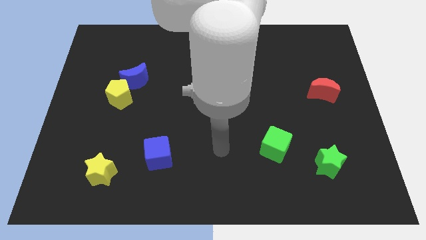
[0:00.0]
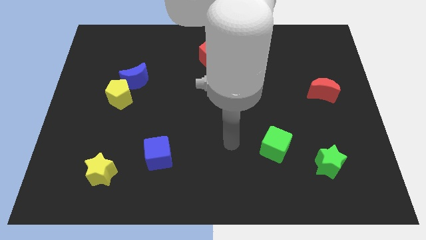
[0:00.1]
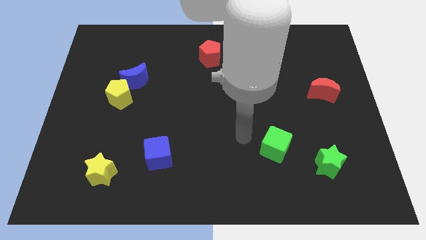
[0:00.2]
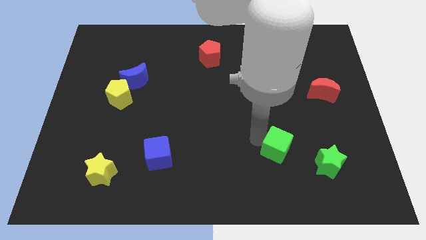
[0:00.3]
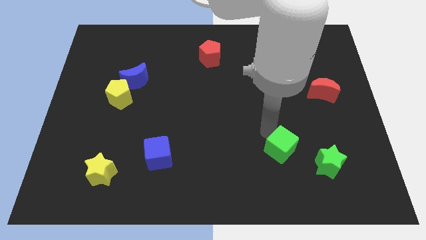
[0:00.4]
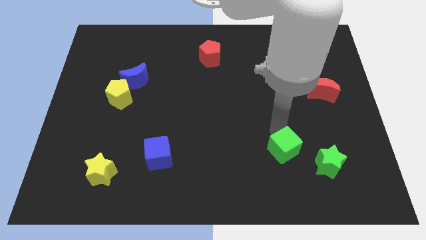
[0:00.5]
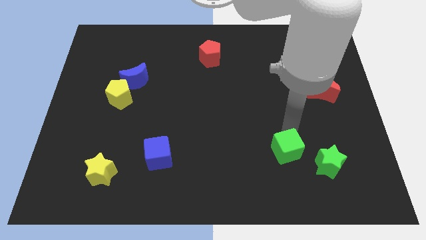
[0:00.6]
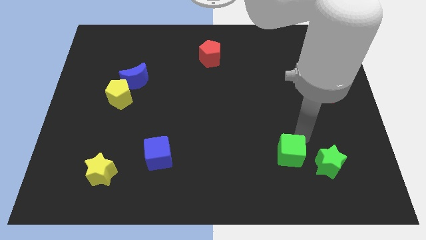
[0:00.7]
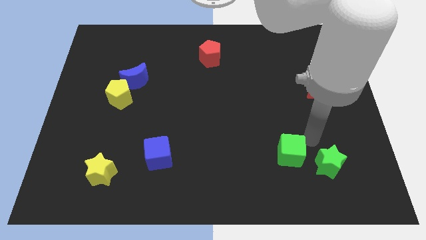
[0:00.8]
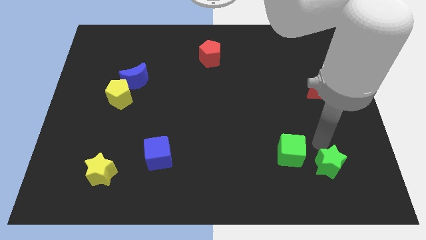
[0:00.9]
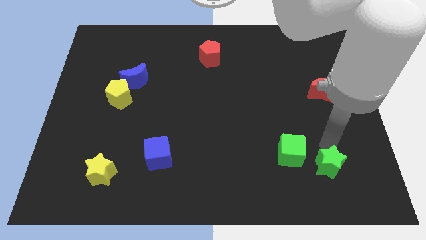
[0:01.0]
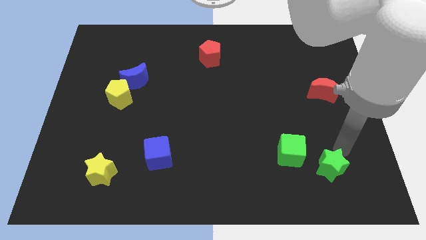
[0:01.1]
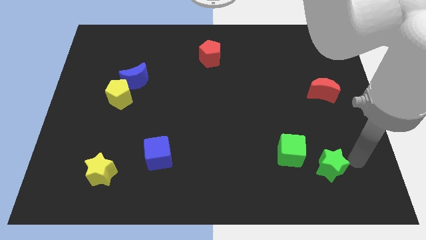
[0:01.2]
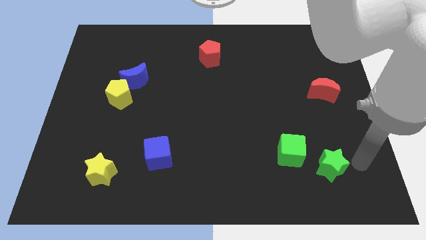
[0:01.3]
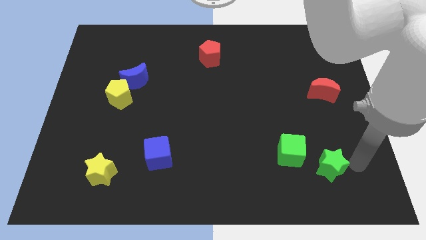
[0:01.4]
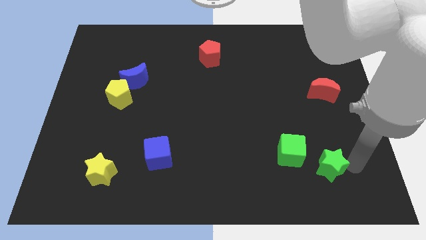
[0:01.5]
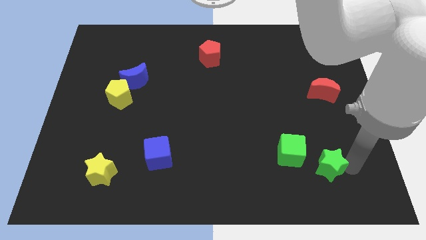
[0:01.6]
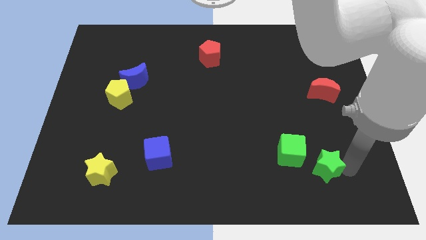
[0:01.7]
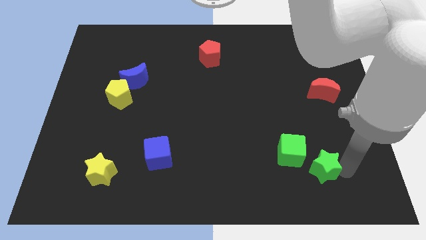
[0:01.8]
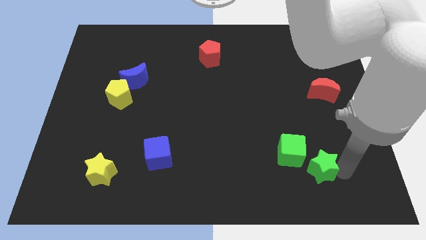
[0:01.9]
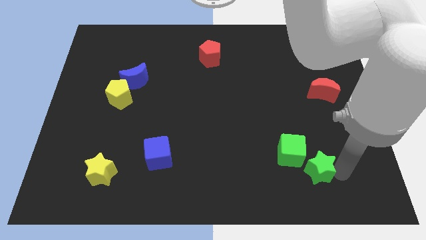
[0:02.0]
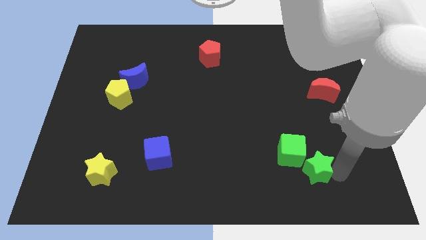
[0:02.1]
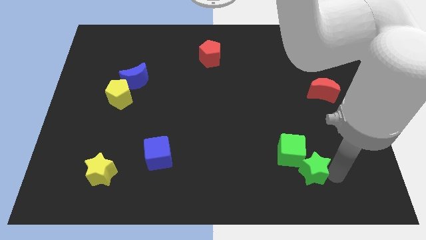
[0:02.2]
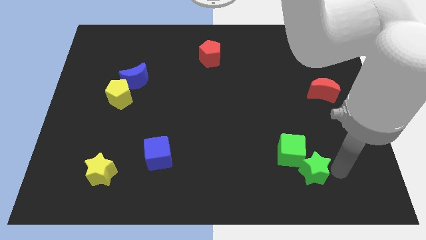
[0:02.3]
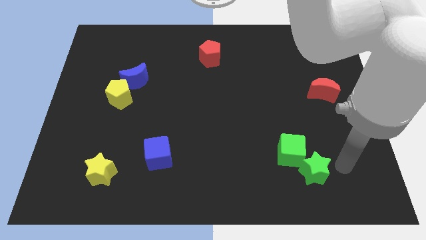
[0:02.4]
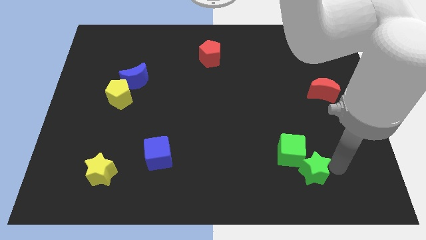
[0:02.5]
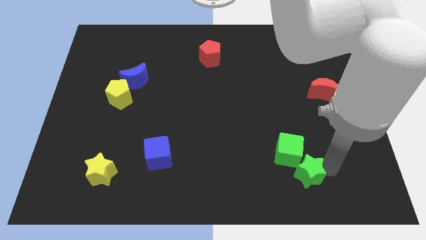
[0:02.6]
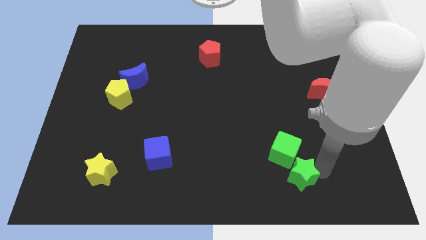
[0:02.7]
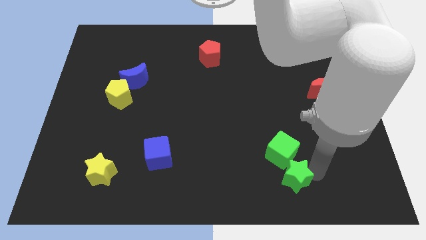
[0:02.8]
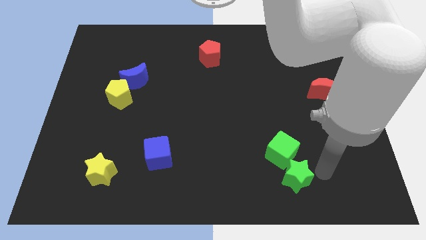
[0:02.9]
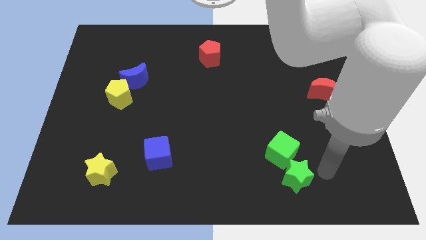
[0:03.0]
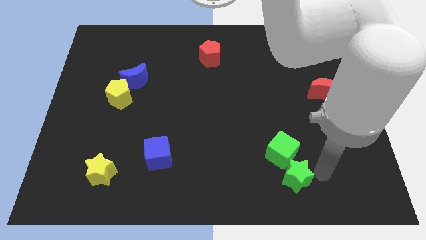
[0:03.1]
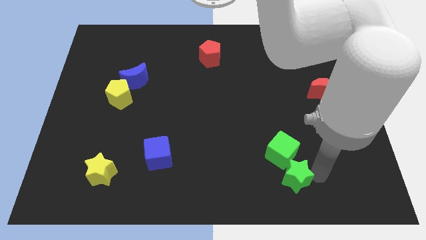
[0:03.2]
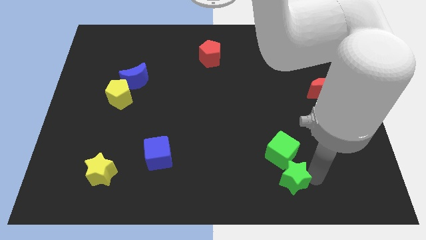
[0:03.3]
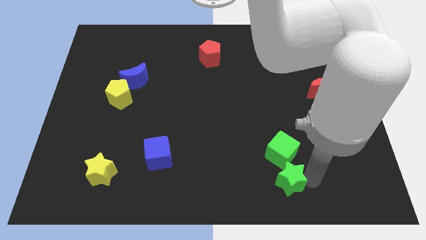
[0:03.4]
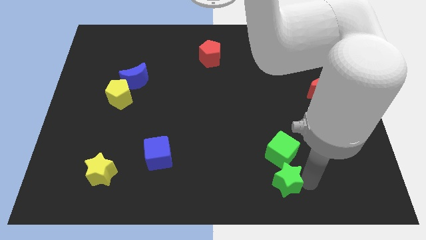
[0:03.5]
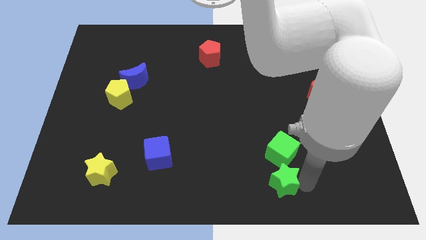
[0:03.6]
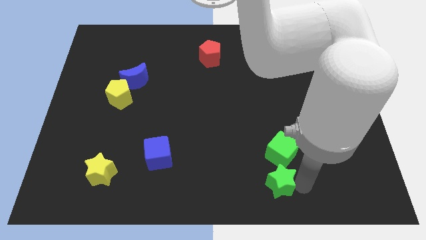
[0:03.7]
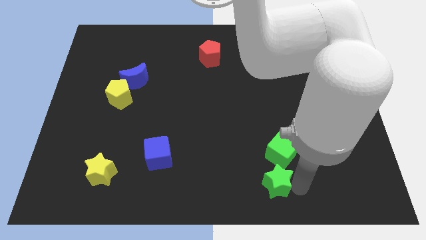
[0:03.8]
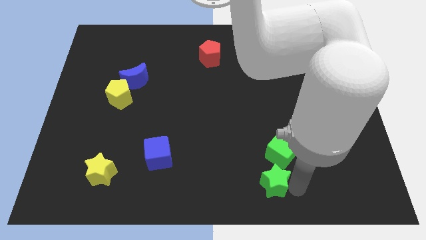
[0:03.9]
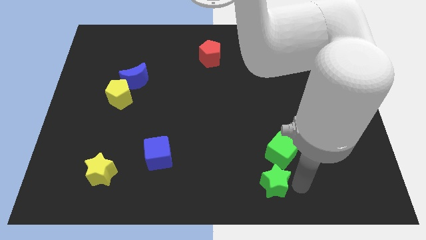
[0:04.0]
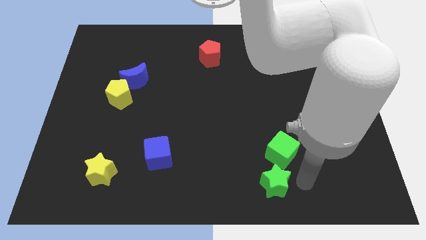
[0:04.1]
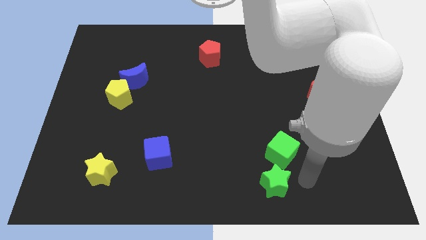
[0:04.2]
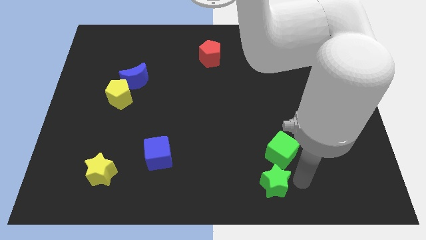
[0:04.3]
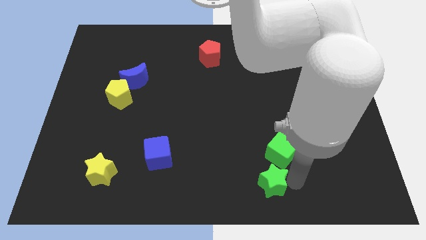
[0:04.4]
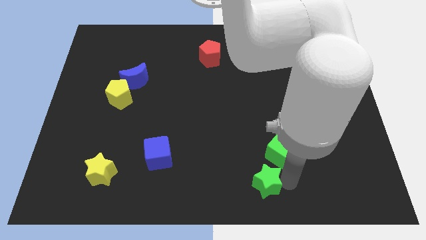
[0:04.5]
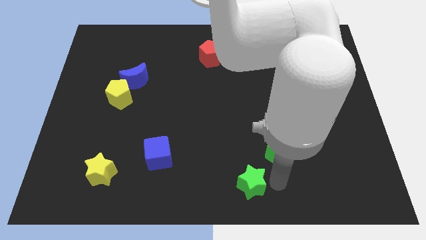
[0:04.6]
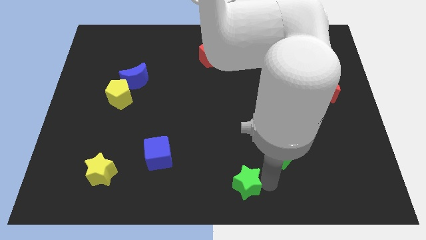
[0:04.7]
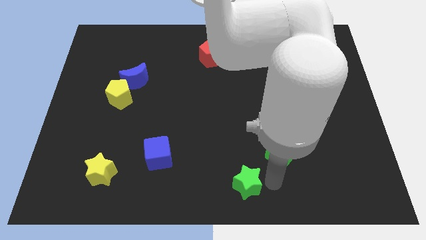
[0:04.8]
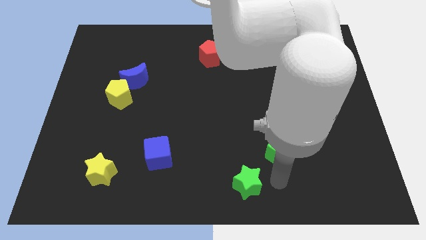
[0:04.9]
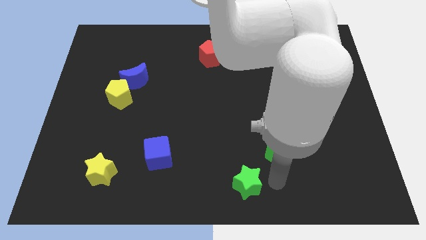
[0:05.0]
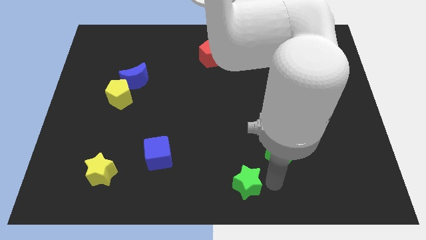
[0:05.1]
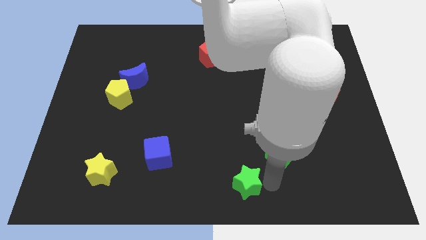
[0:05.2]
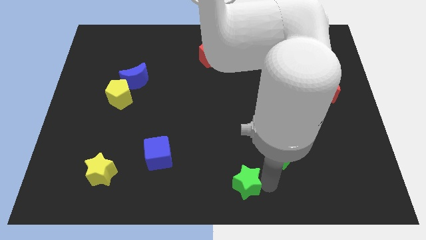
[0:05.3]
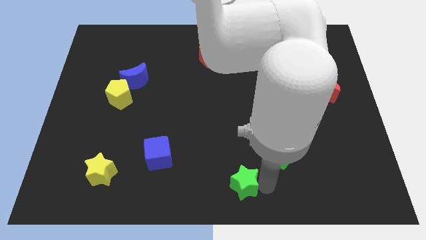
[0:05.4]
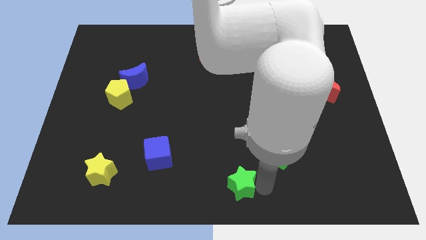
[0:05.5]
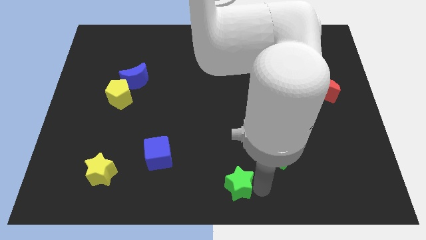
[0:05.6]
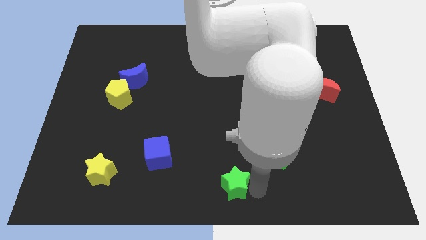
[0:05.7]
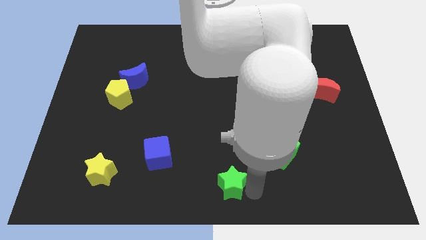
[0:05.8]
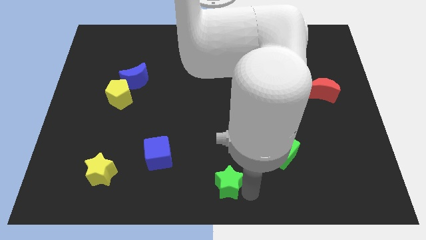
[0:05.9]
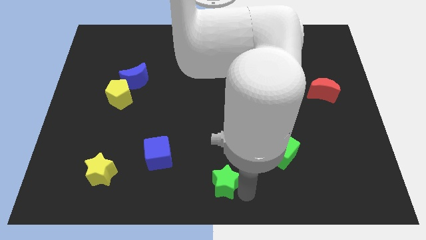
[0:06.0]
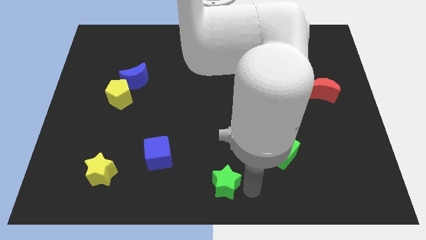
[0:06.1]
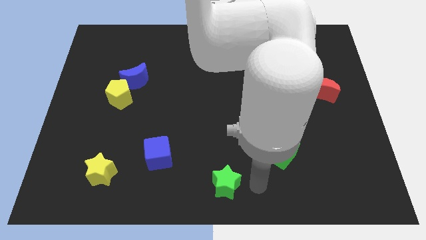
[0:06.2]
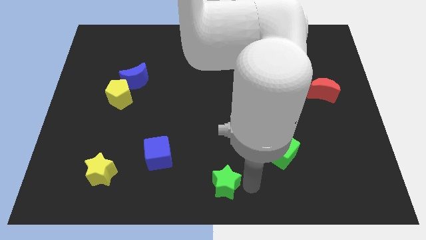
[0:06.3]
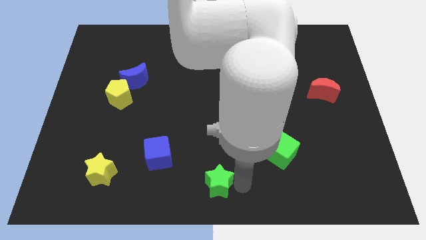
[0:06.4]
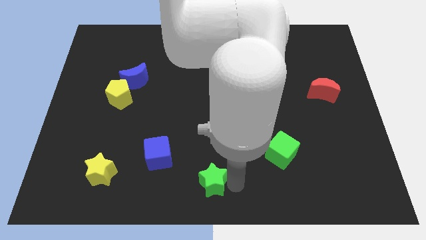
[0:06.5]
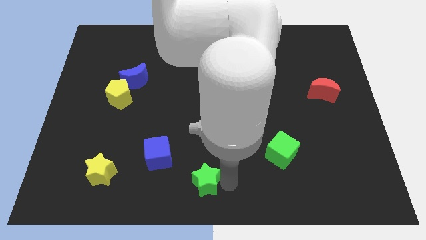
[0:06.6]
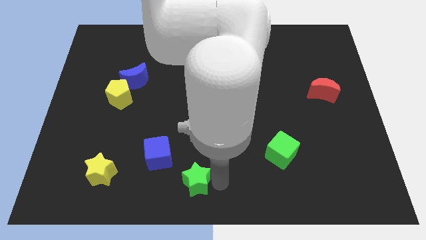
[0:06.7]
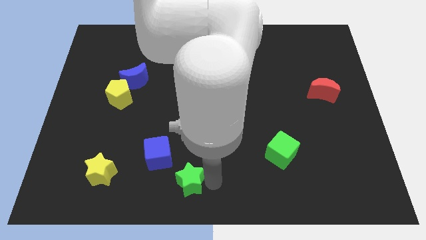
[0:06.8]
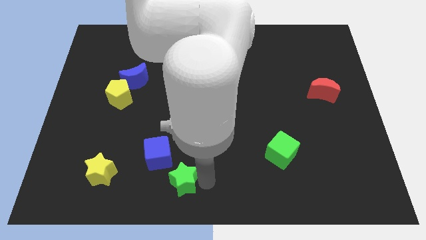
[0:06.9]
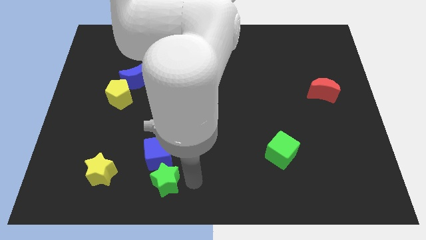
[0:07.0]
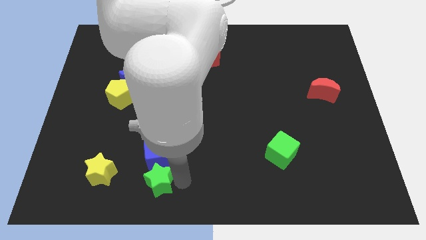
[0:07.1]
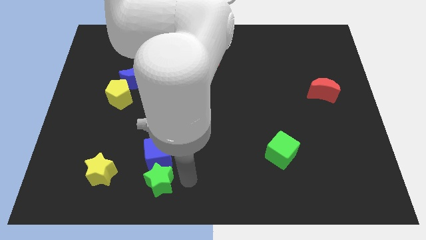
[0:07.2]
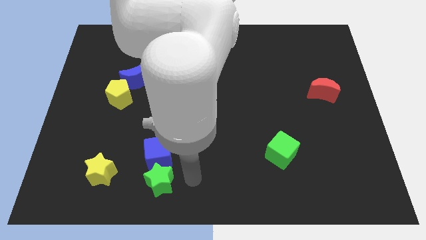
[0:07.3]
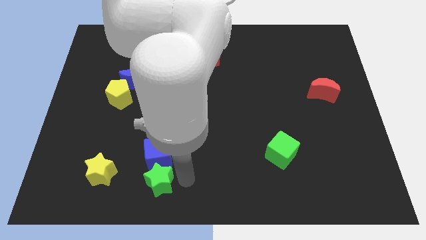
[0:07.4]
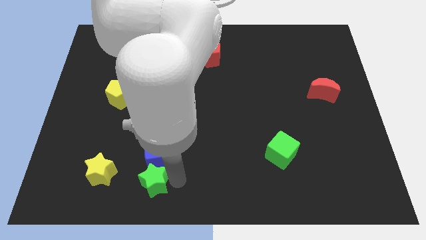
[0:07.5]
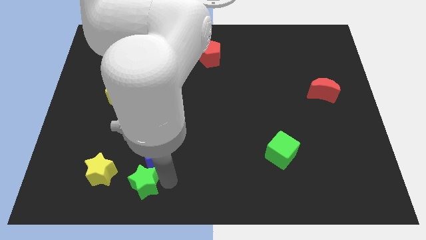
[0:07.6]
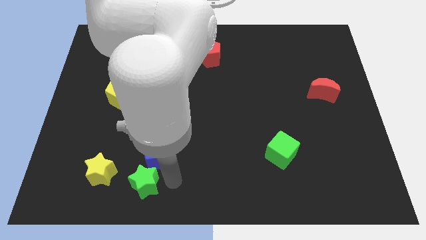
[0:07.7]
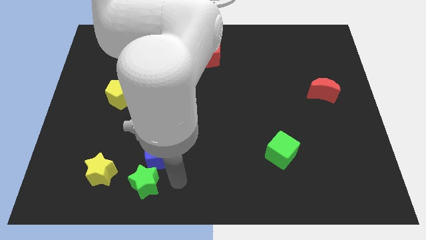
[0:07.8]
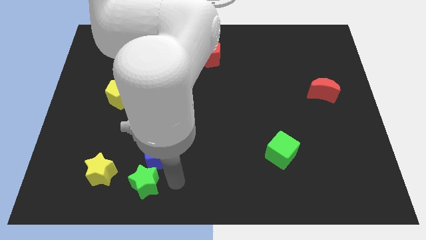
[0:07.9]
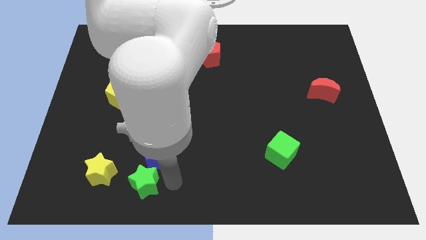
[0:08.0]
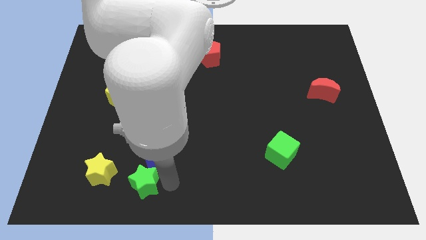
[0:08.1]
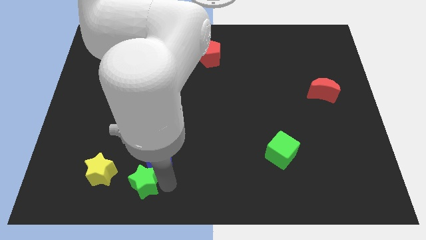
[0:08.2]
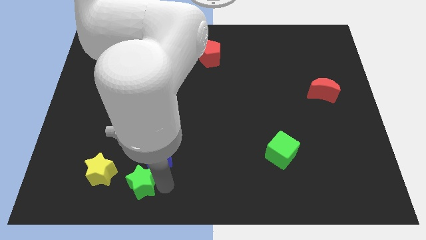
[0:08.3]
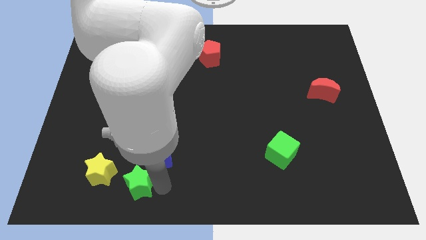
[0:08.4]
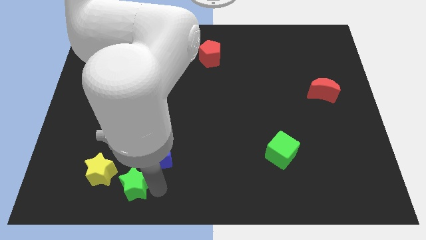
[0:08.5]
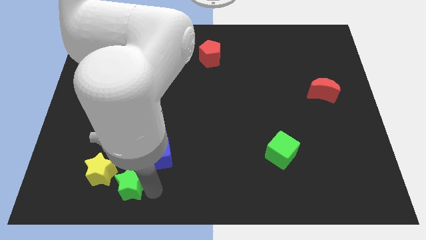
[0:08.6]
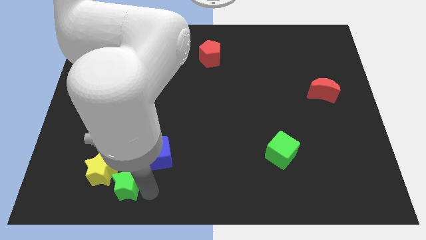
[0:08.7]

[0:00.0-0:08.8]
push the green star towards the yellow star
